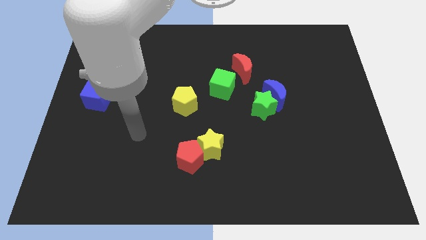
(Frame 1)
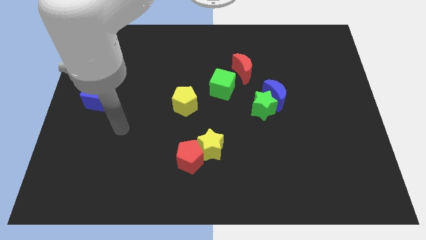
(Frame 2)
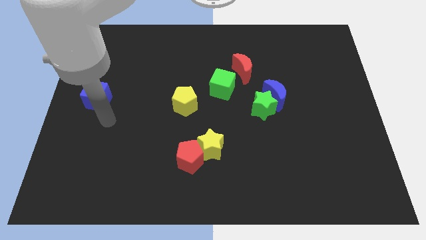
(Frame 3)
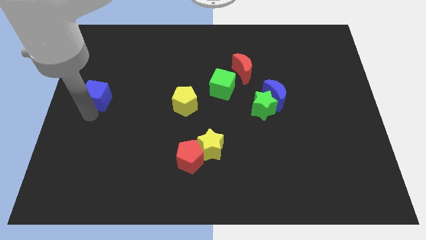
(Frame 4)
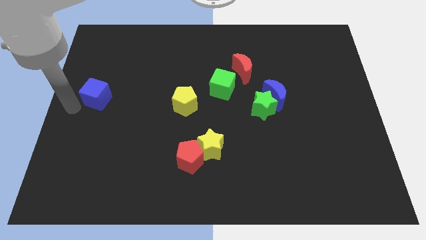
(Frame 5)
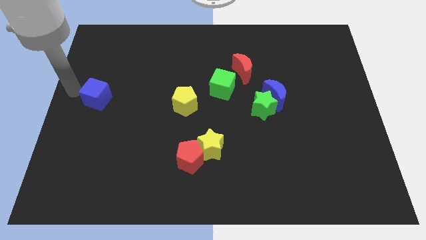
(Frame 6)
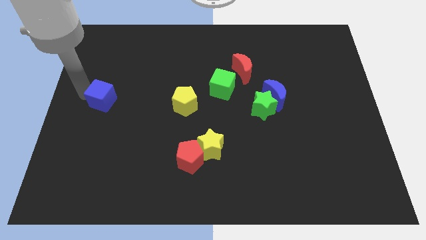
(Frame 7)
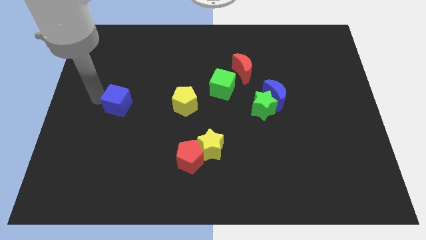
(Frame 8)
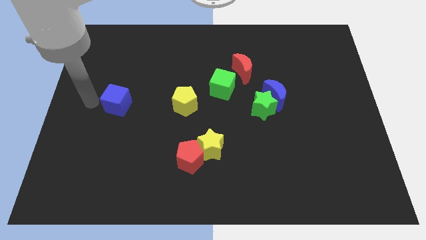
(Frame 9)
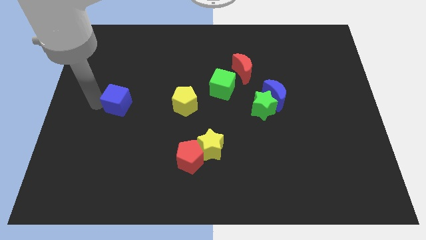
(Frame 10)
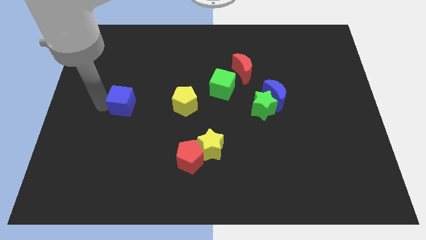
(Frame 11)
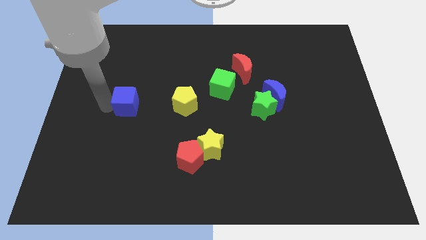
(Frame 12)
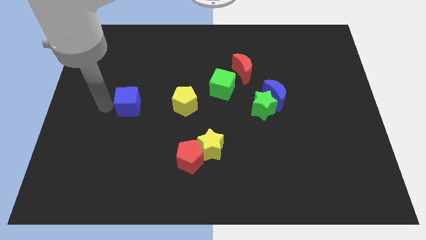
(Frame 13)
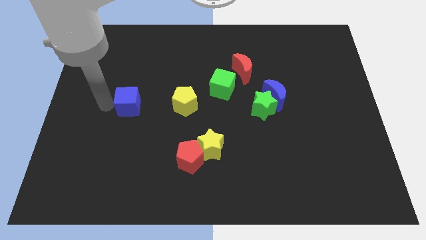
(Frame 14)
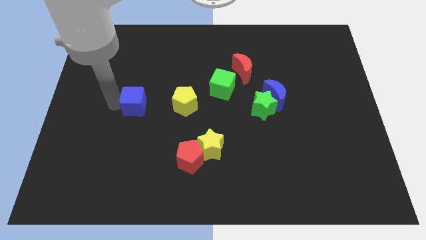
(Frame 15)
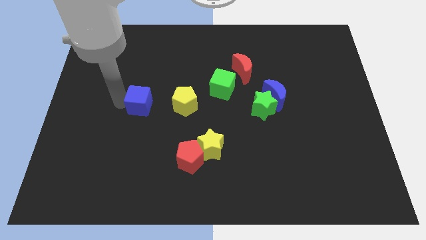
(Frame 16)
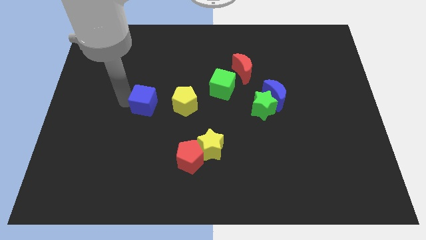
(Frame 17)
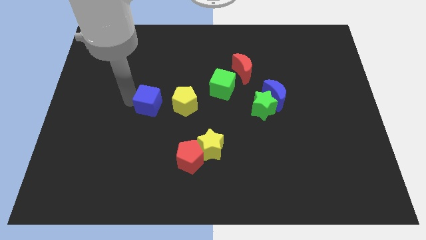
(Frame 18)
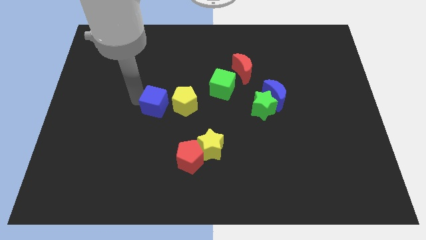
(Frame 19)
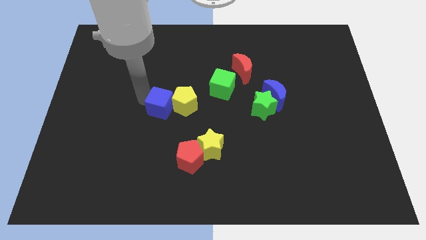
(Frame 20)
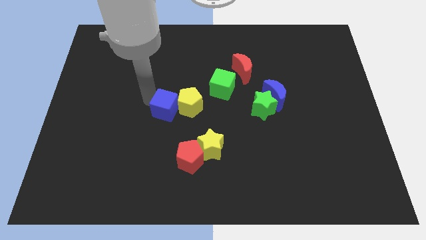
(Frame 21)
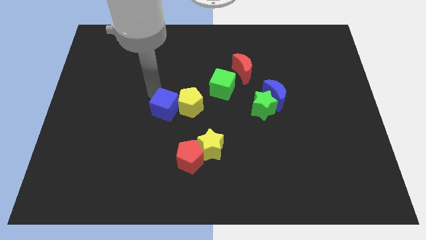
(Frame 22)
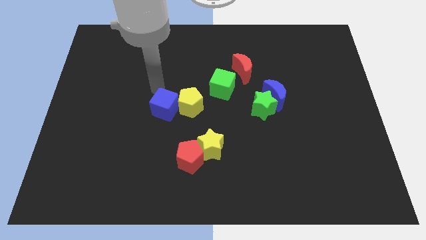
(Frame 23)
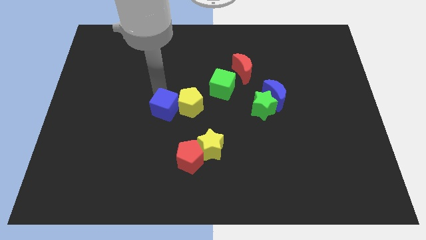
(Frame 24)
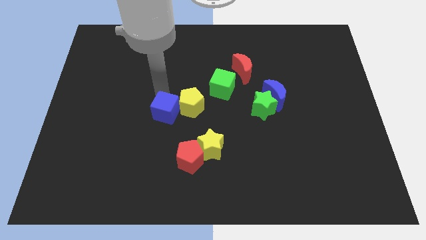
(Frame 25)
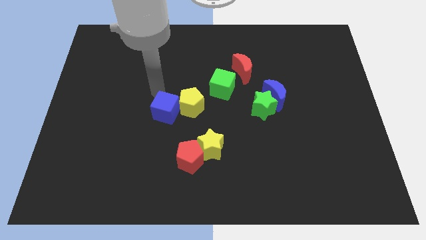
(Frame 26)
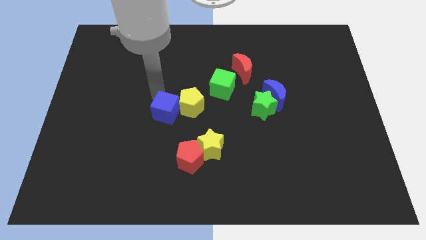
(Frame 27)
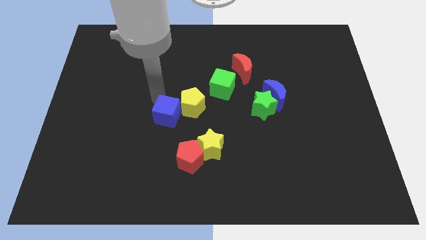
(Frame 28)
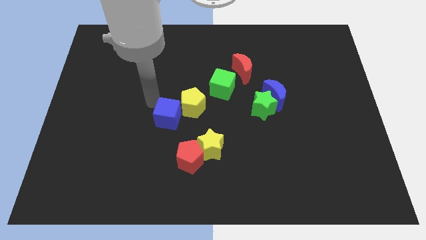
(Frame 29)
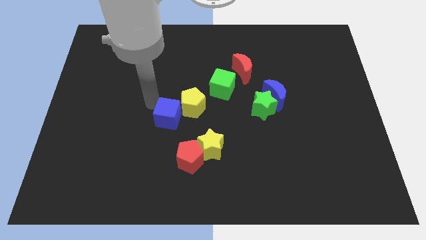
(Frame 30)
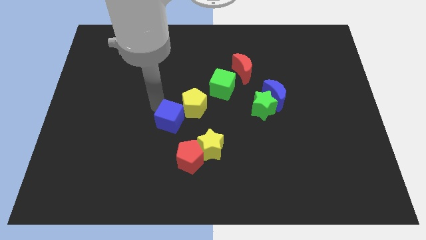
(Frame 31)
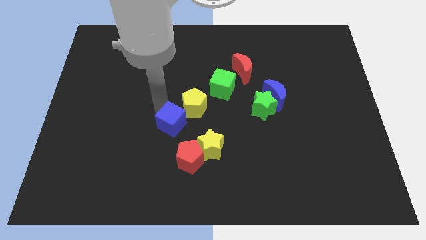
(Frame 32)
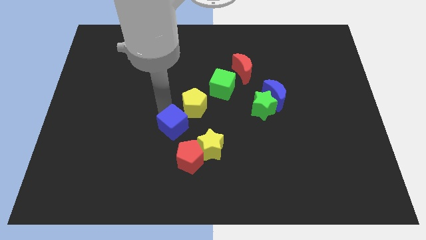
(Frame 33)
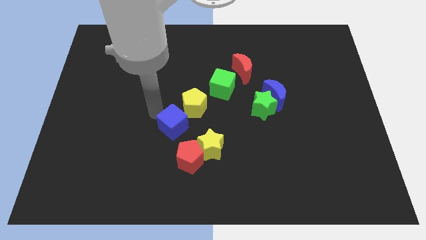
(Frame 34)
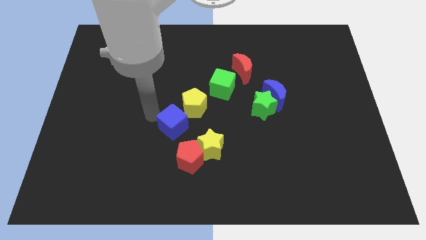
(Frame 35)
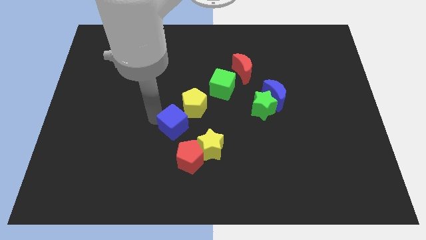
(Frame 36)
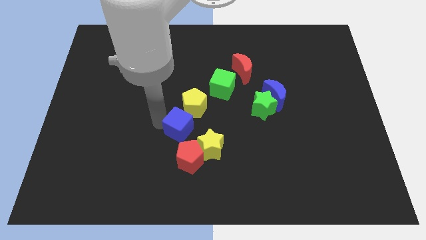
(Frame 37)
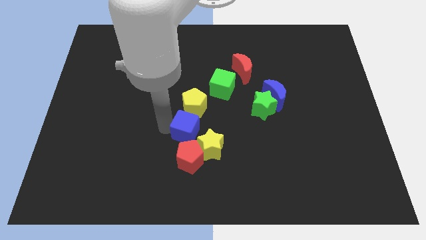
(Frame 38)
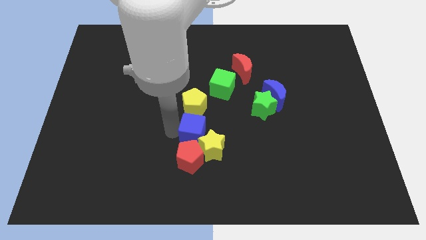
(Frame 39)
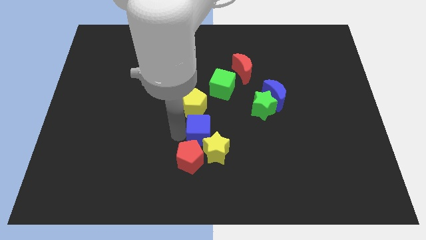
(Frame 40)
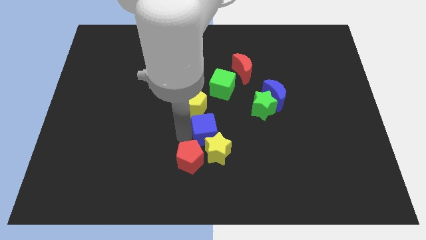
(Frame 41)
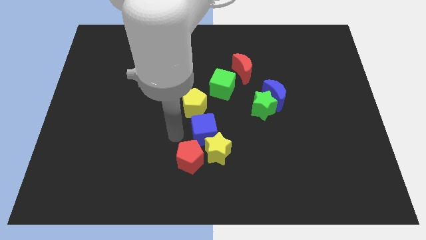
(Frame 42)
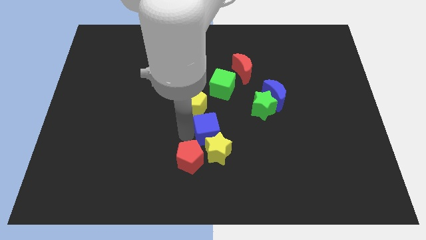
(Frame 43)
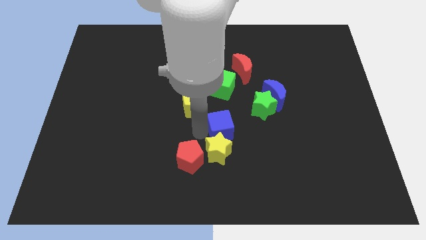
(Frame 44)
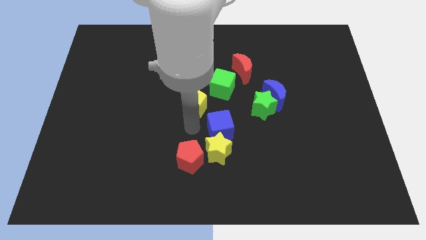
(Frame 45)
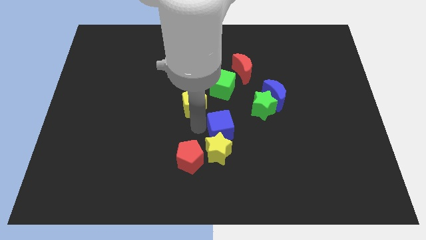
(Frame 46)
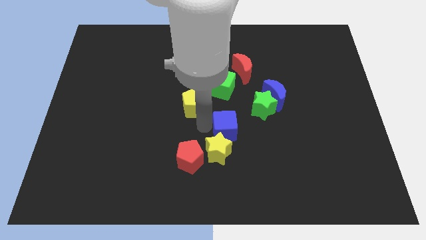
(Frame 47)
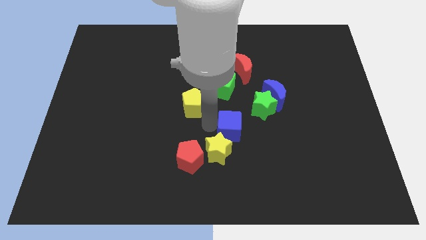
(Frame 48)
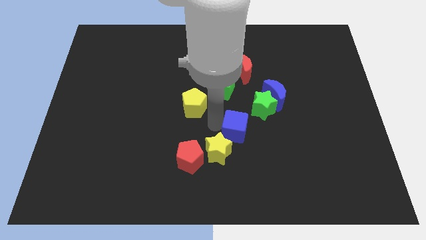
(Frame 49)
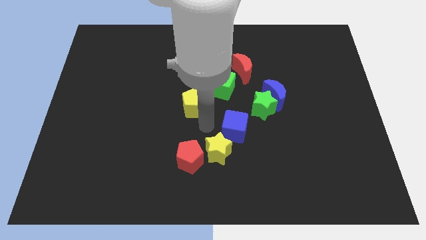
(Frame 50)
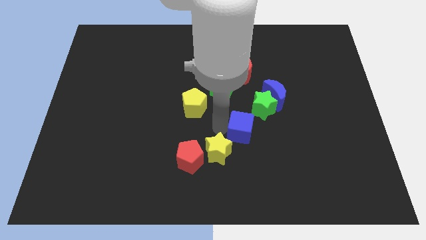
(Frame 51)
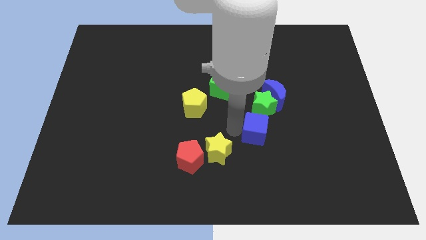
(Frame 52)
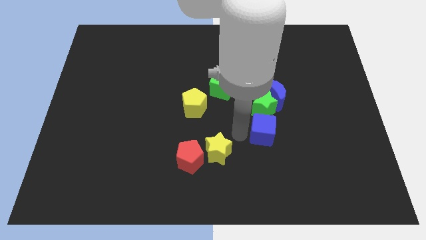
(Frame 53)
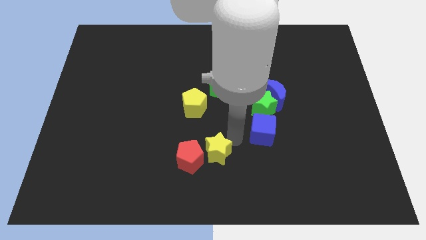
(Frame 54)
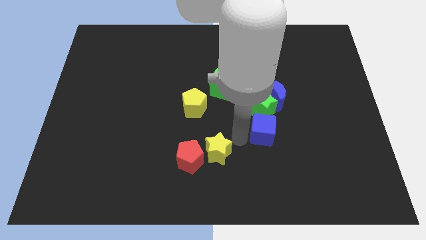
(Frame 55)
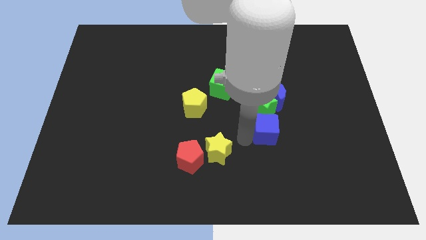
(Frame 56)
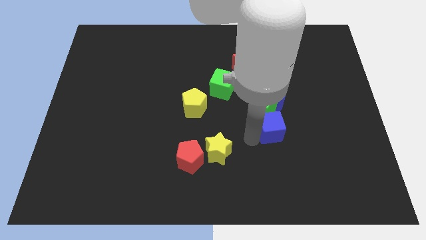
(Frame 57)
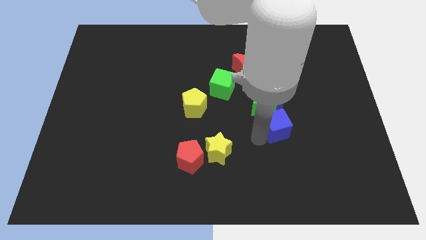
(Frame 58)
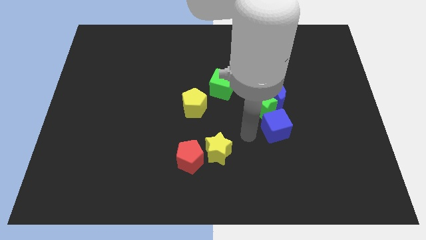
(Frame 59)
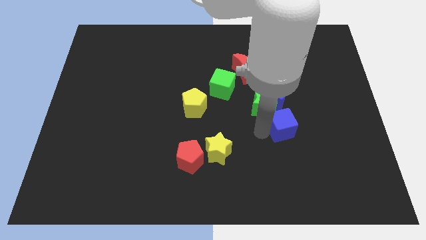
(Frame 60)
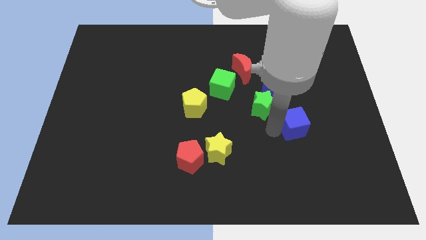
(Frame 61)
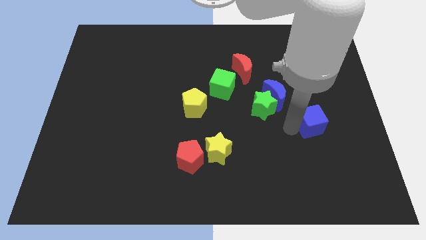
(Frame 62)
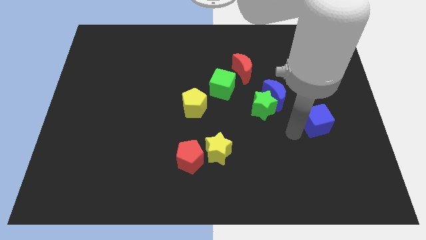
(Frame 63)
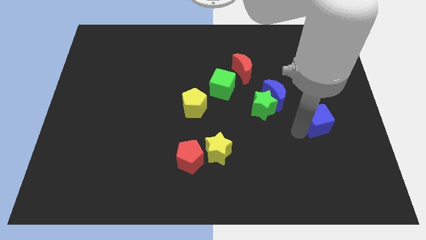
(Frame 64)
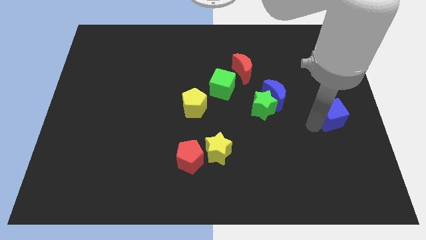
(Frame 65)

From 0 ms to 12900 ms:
put the blue cube to the right side
